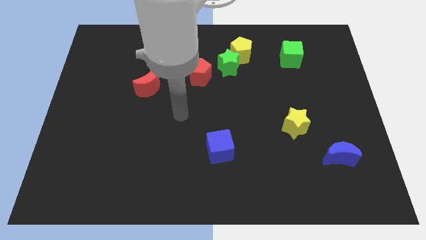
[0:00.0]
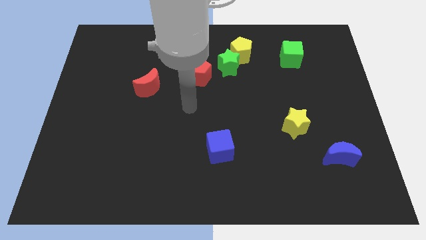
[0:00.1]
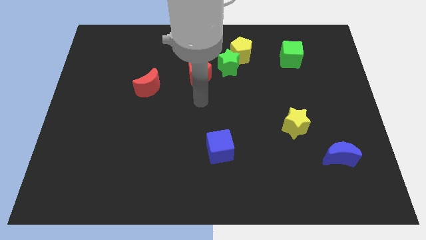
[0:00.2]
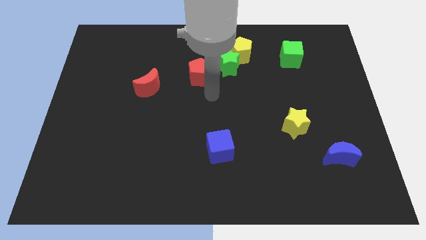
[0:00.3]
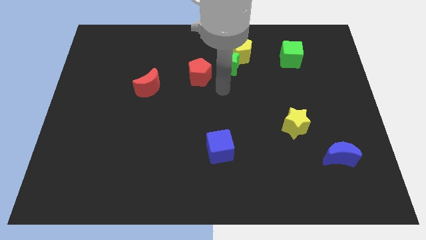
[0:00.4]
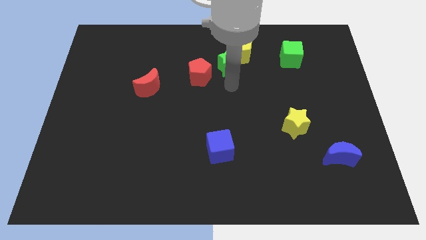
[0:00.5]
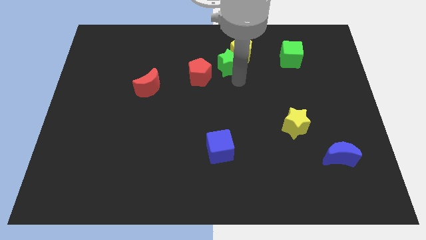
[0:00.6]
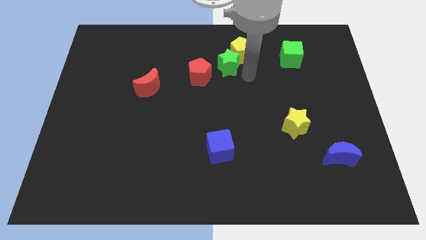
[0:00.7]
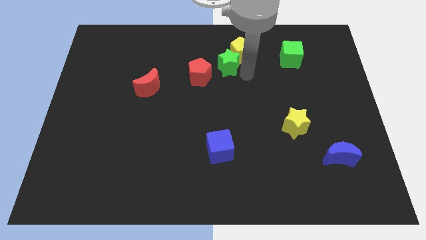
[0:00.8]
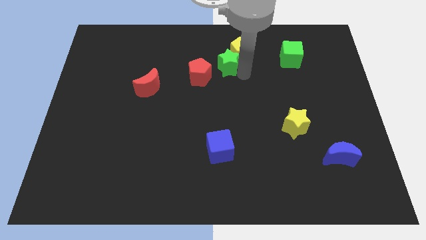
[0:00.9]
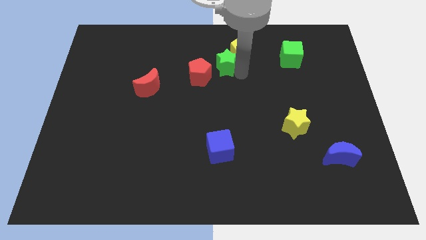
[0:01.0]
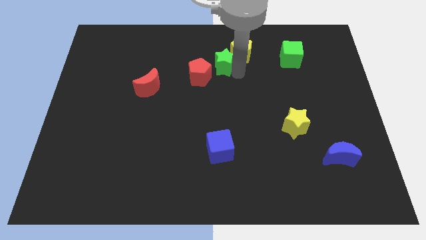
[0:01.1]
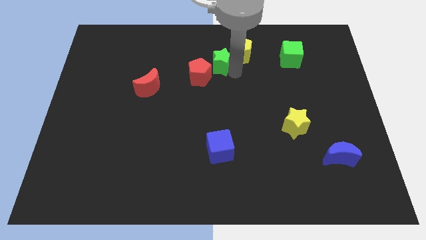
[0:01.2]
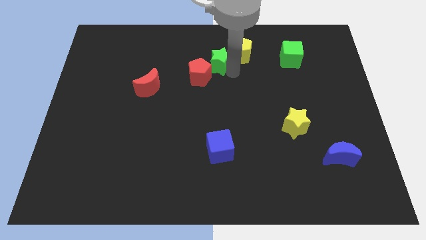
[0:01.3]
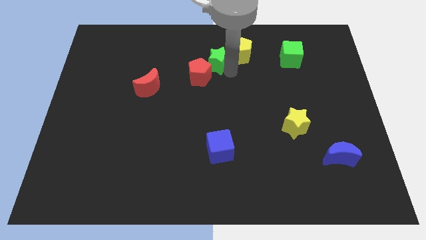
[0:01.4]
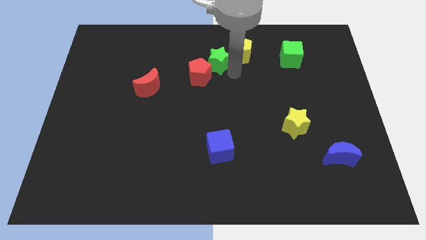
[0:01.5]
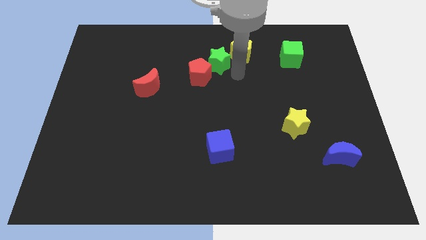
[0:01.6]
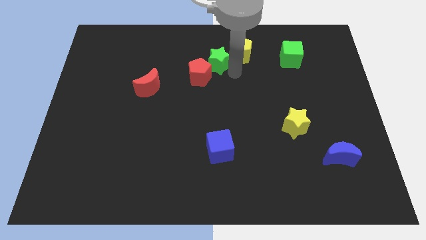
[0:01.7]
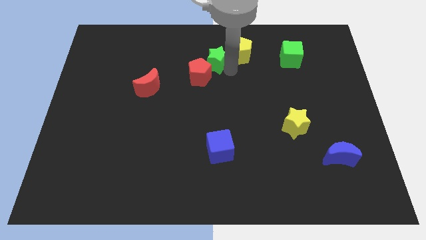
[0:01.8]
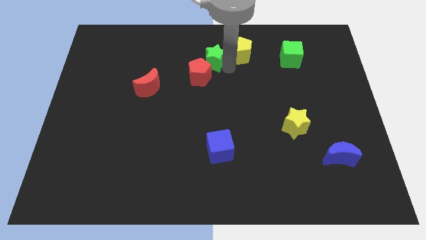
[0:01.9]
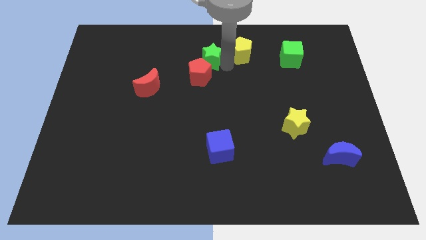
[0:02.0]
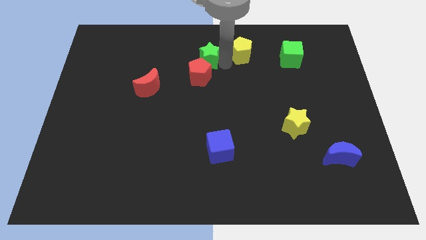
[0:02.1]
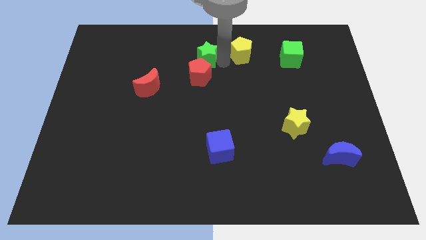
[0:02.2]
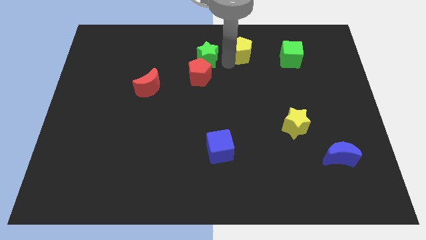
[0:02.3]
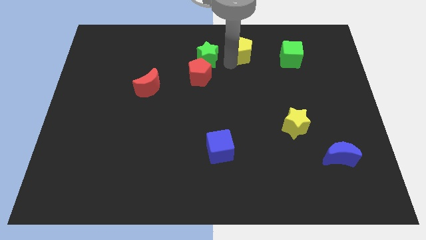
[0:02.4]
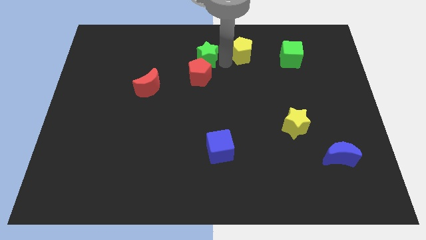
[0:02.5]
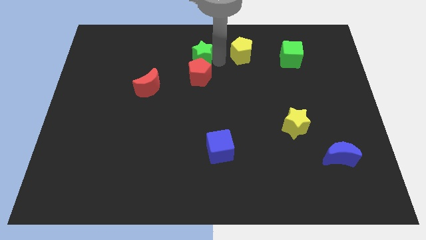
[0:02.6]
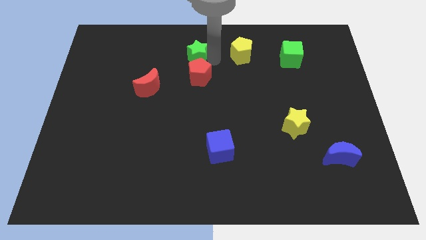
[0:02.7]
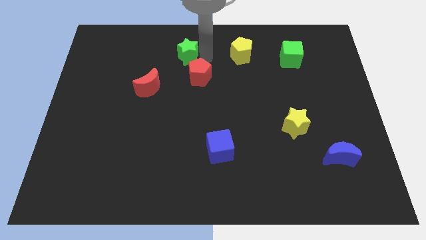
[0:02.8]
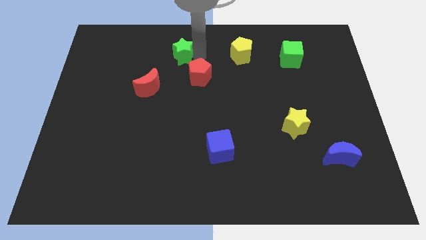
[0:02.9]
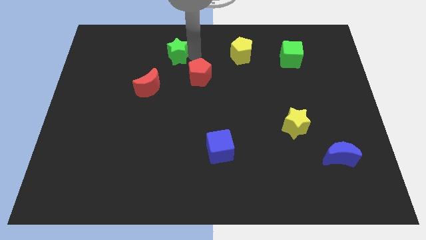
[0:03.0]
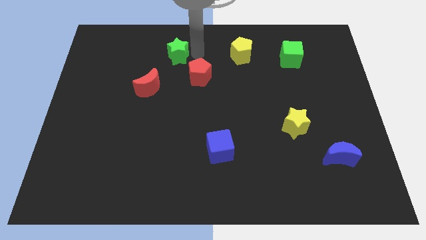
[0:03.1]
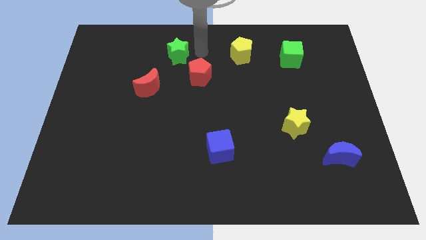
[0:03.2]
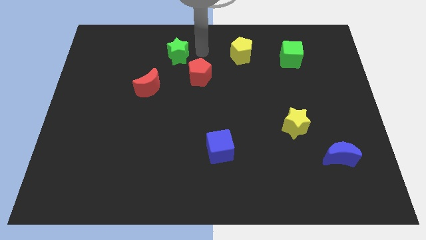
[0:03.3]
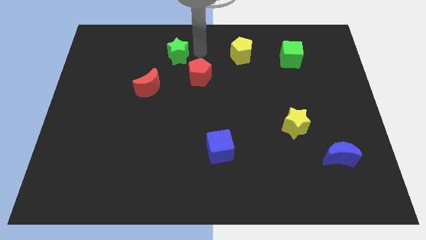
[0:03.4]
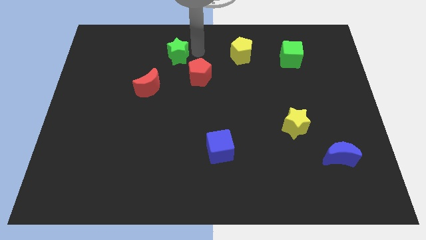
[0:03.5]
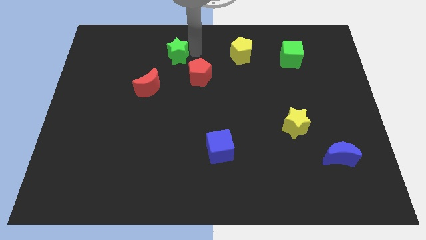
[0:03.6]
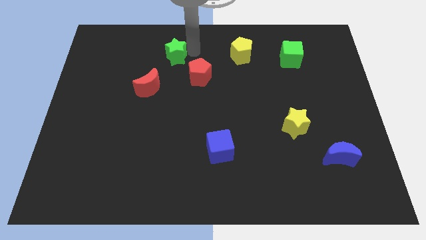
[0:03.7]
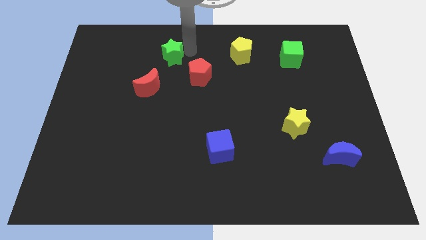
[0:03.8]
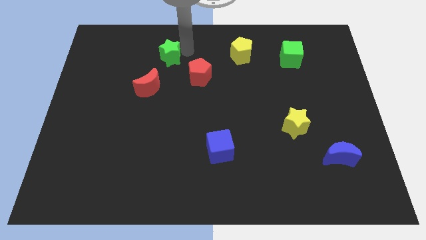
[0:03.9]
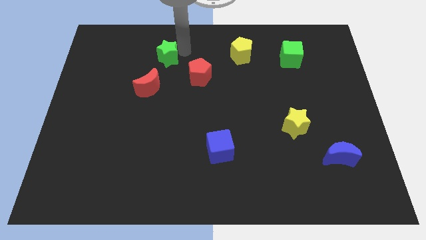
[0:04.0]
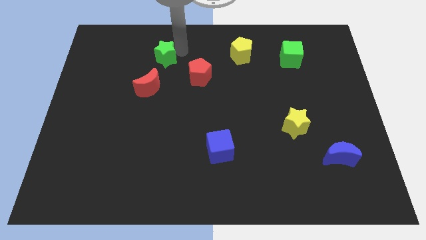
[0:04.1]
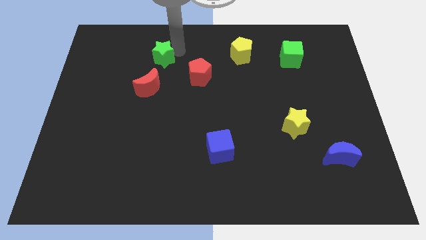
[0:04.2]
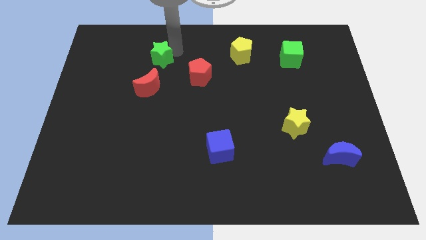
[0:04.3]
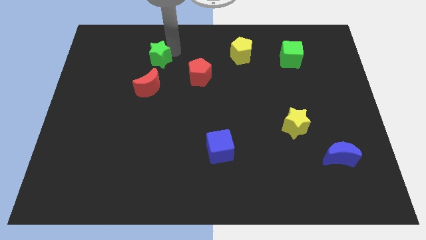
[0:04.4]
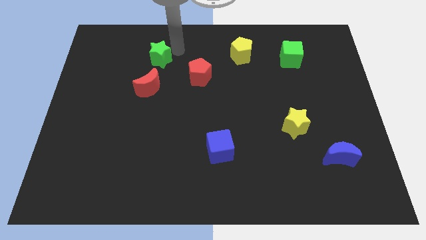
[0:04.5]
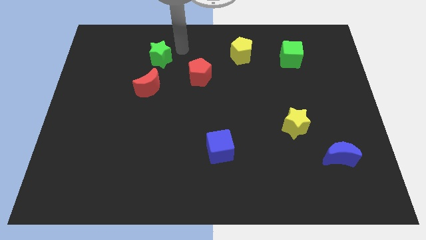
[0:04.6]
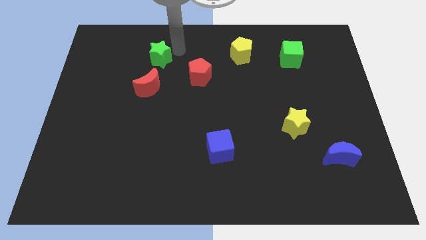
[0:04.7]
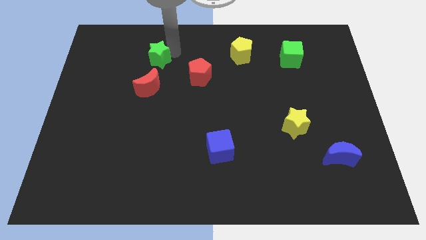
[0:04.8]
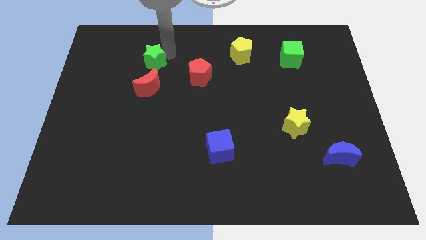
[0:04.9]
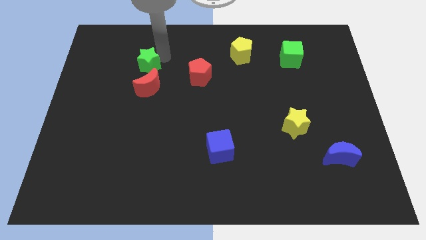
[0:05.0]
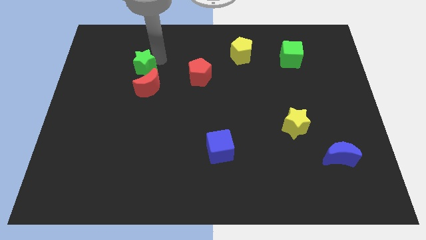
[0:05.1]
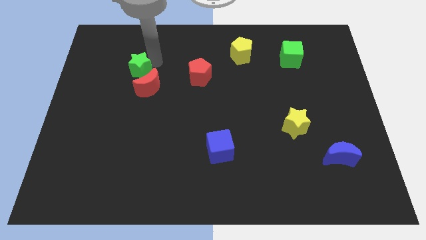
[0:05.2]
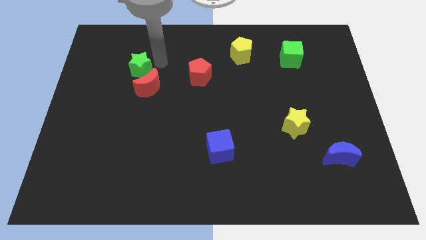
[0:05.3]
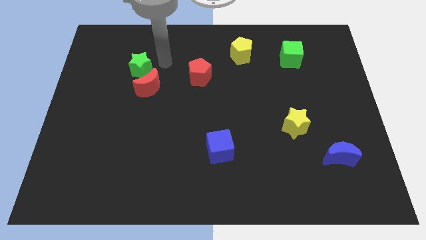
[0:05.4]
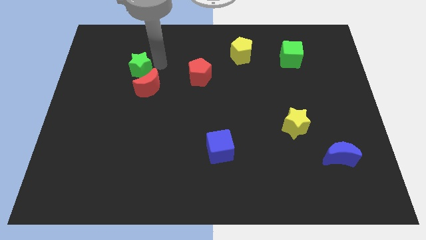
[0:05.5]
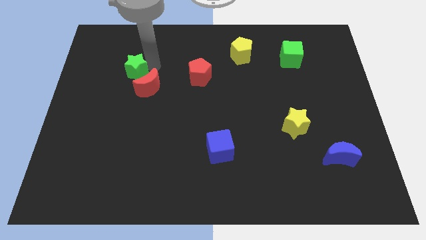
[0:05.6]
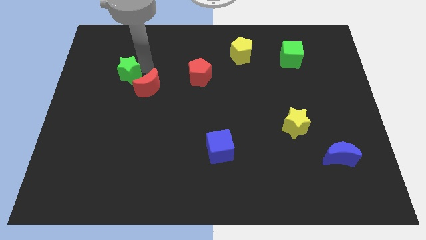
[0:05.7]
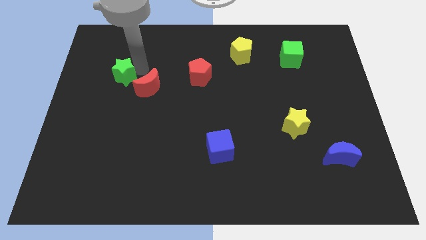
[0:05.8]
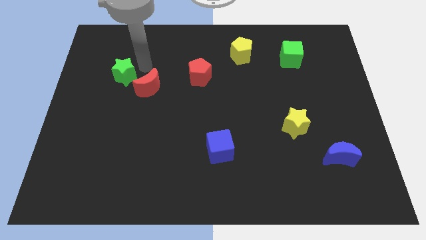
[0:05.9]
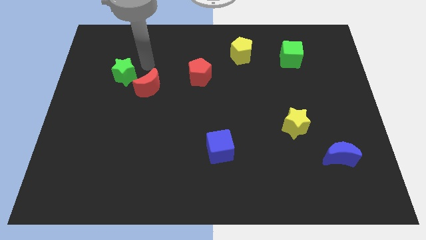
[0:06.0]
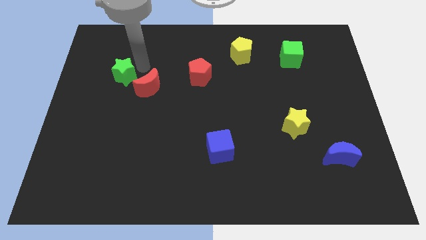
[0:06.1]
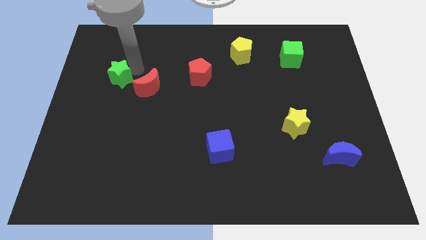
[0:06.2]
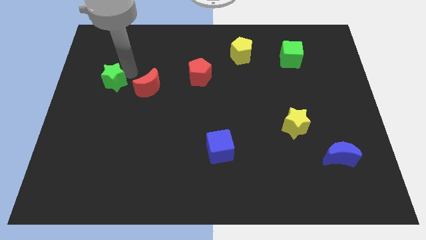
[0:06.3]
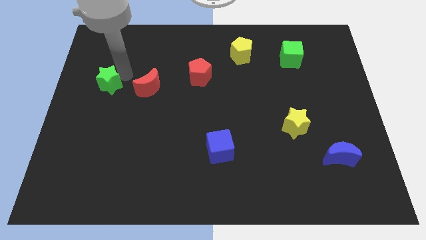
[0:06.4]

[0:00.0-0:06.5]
slide the green star to the left side of the board
